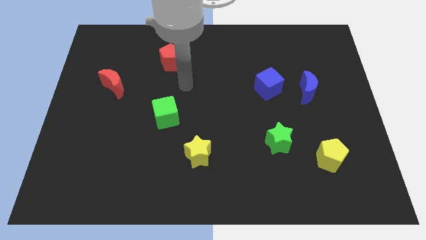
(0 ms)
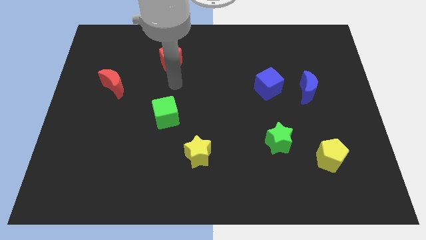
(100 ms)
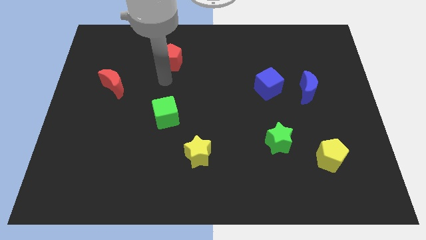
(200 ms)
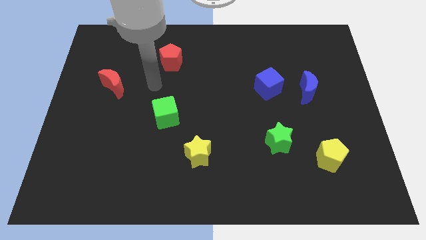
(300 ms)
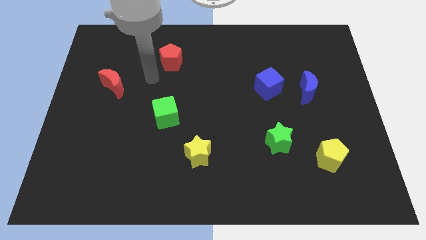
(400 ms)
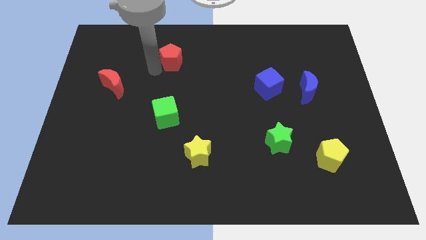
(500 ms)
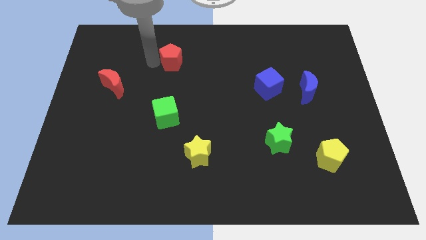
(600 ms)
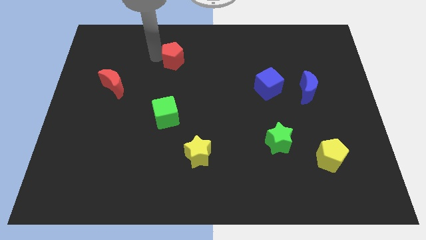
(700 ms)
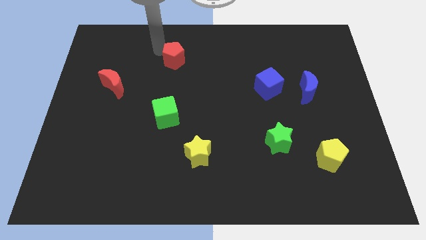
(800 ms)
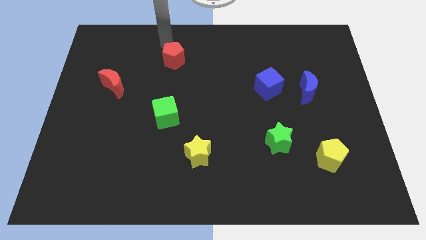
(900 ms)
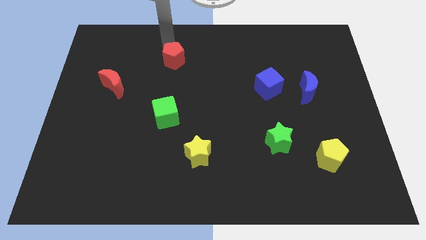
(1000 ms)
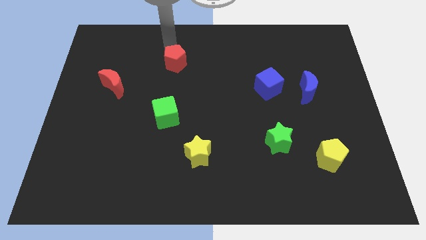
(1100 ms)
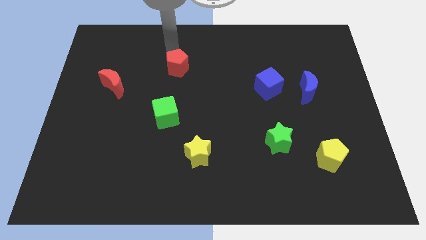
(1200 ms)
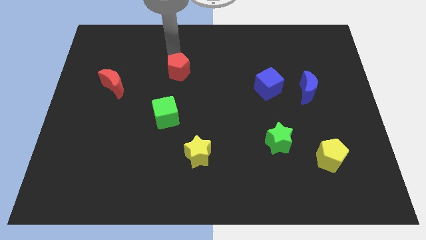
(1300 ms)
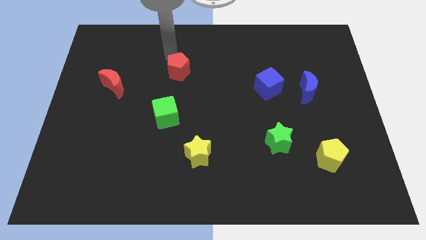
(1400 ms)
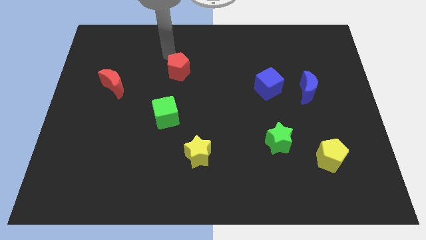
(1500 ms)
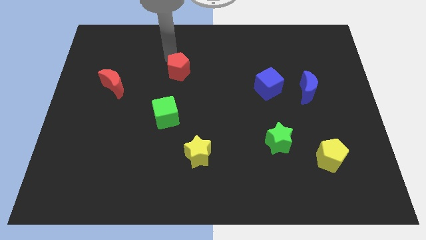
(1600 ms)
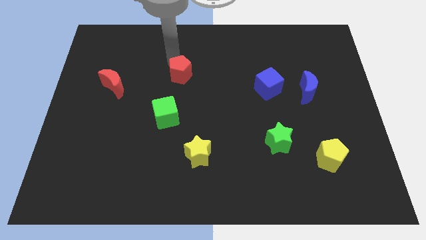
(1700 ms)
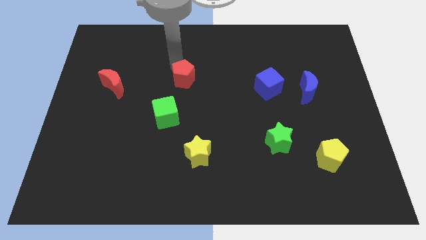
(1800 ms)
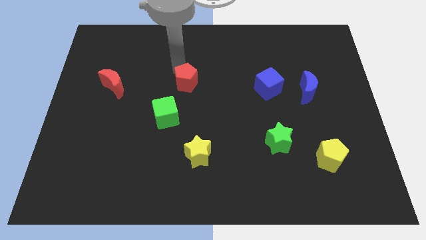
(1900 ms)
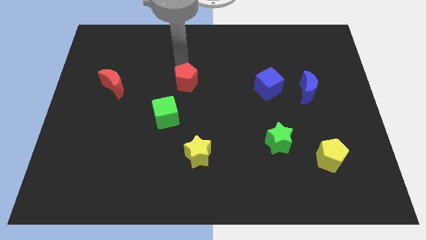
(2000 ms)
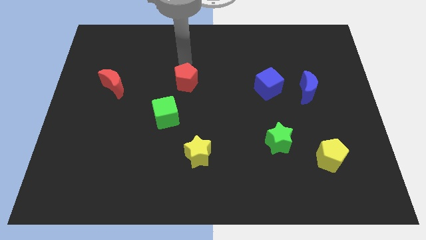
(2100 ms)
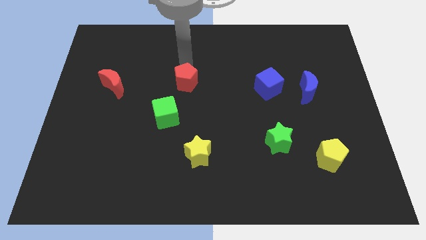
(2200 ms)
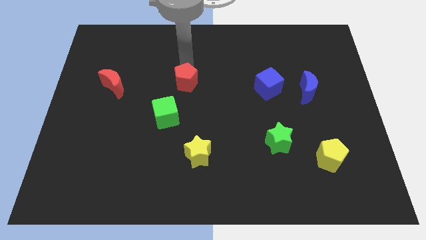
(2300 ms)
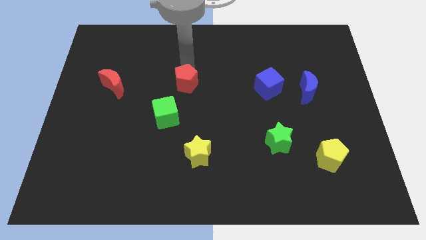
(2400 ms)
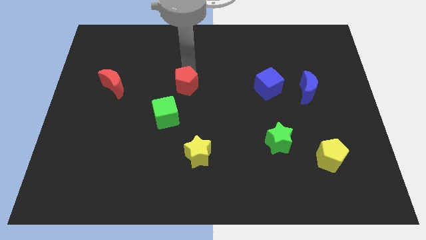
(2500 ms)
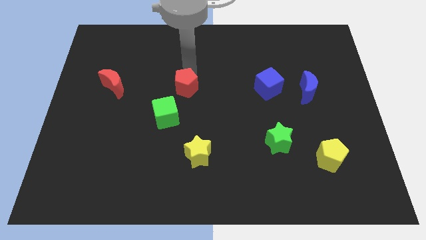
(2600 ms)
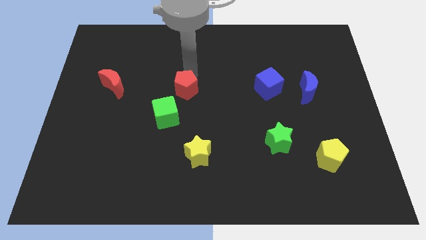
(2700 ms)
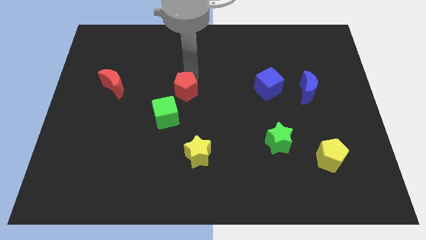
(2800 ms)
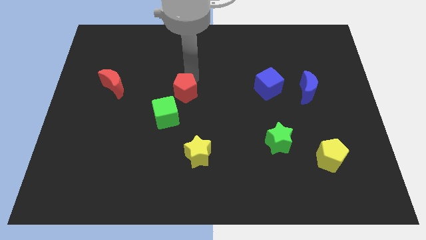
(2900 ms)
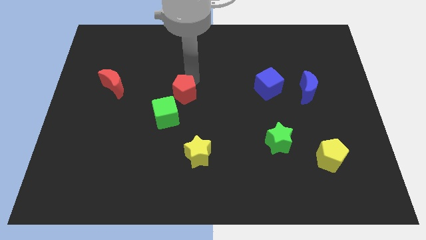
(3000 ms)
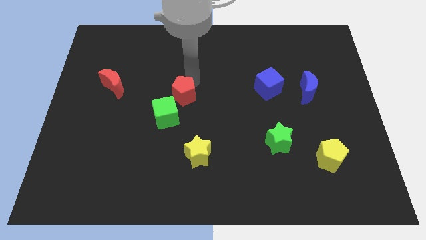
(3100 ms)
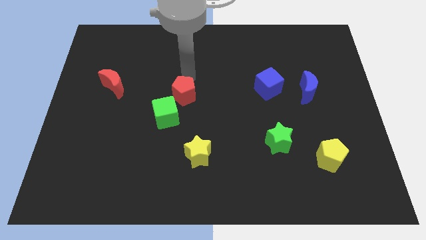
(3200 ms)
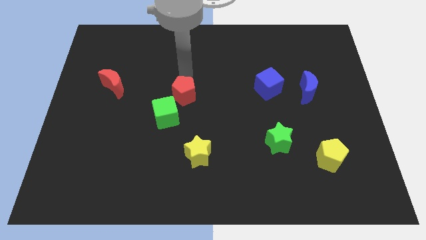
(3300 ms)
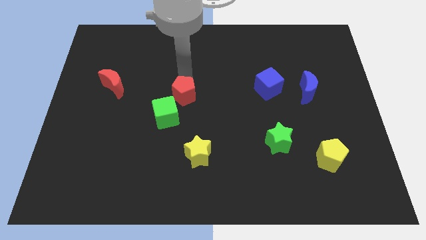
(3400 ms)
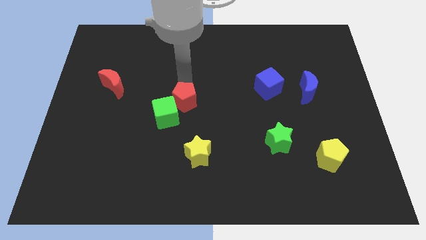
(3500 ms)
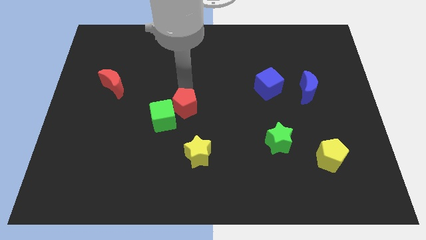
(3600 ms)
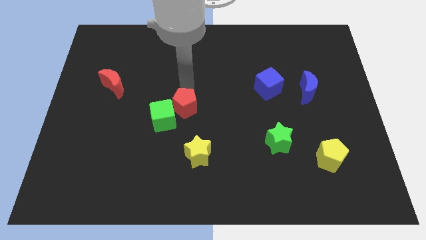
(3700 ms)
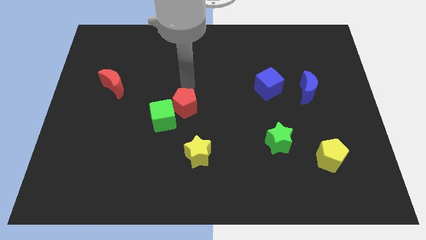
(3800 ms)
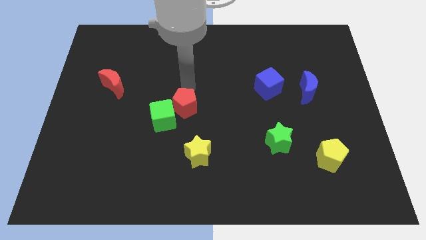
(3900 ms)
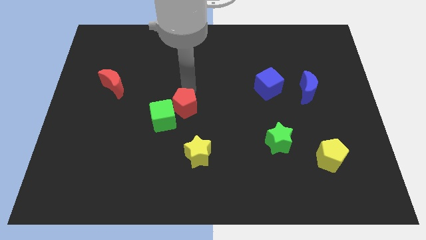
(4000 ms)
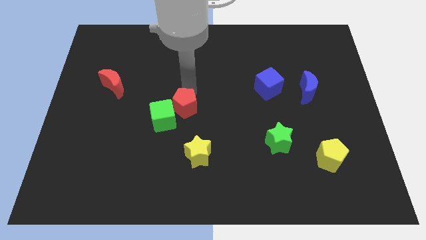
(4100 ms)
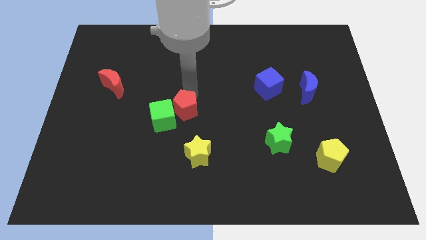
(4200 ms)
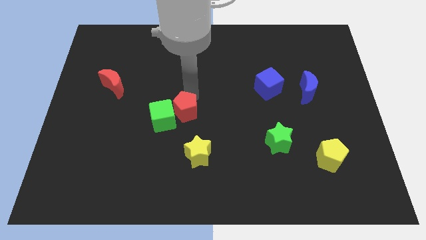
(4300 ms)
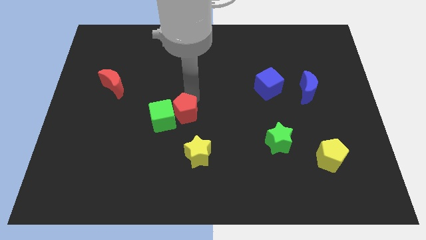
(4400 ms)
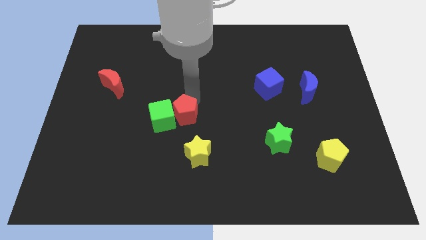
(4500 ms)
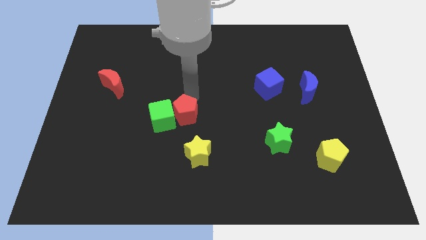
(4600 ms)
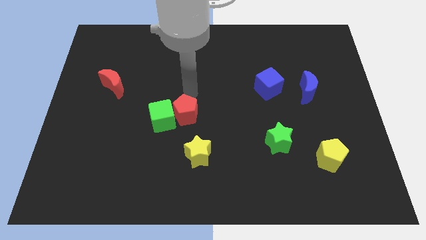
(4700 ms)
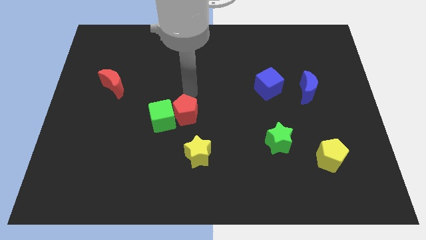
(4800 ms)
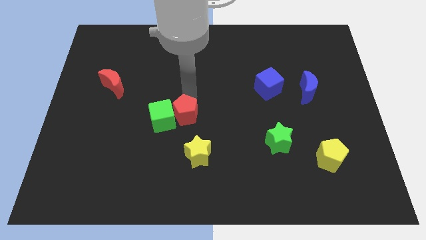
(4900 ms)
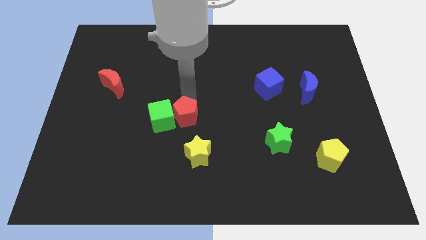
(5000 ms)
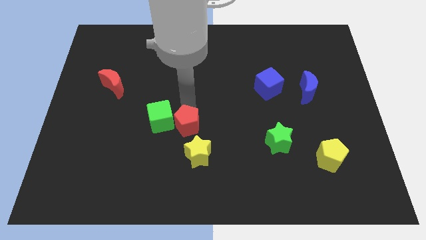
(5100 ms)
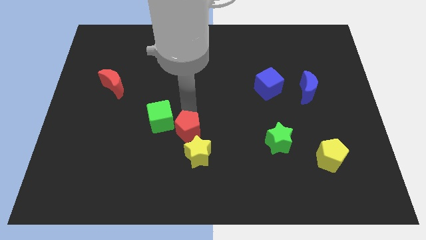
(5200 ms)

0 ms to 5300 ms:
slide the red pentagon down

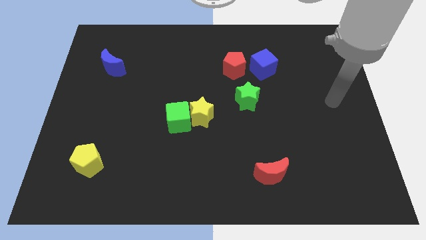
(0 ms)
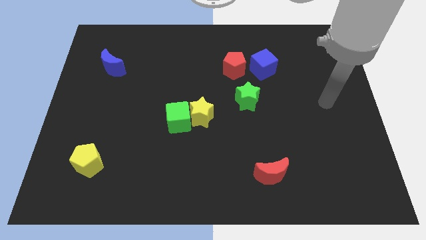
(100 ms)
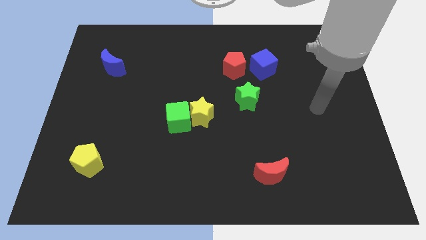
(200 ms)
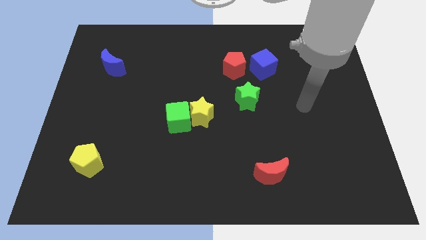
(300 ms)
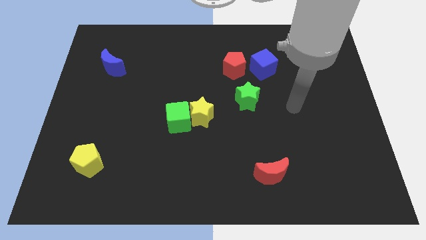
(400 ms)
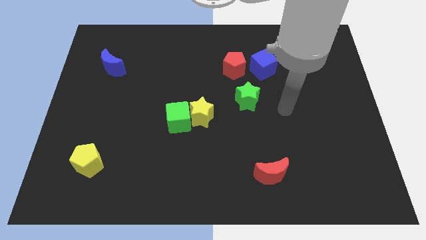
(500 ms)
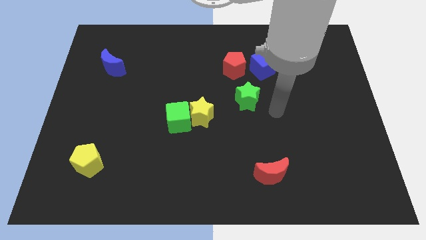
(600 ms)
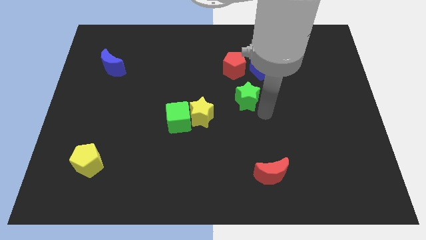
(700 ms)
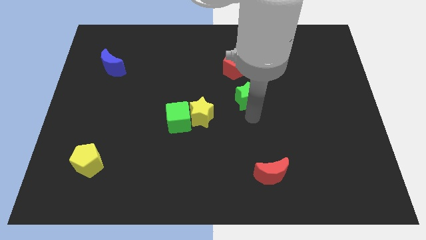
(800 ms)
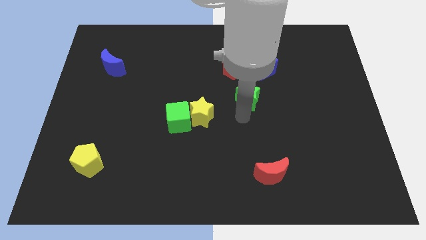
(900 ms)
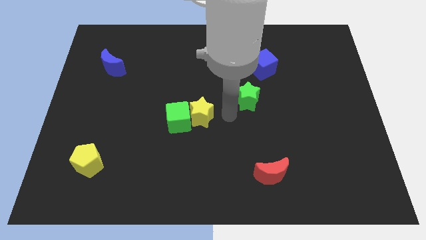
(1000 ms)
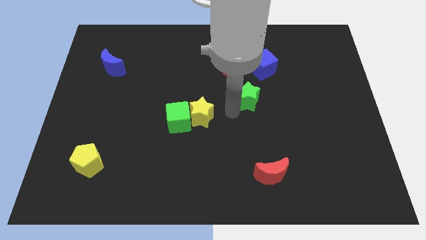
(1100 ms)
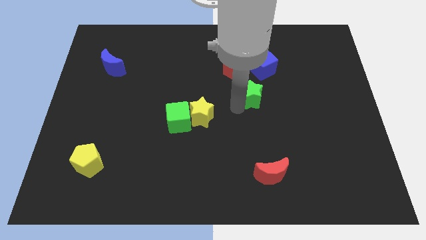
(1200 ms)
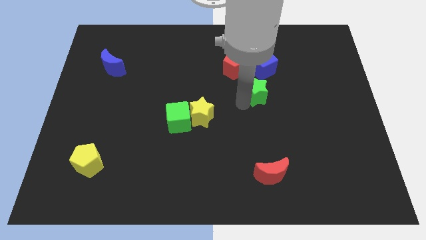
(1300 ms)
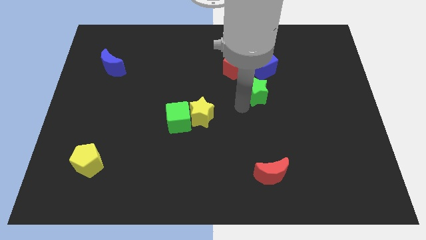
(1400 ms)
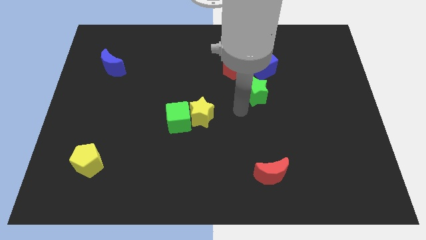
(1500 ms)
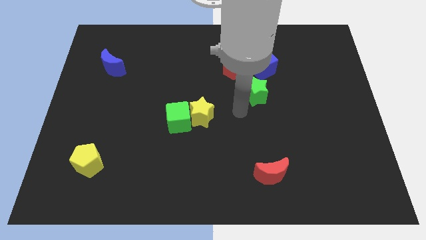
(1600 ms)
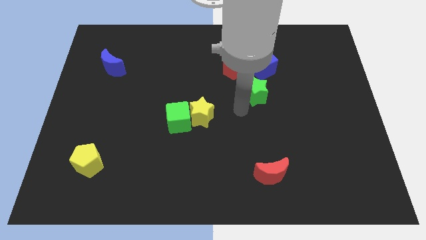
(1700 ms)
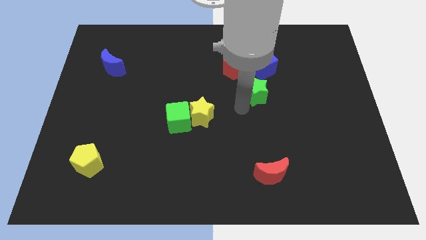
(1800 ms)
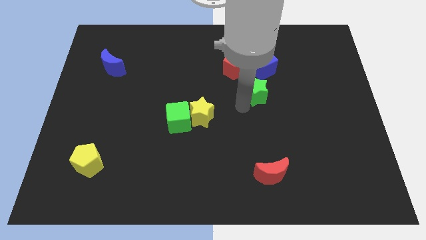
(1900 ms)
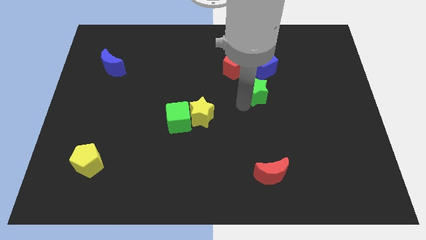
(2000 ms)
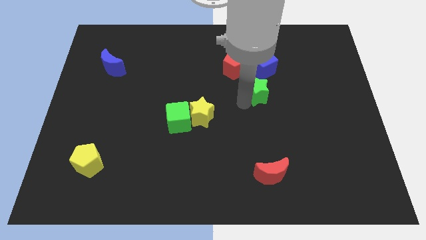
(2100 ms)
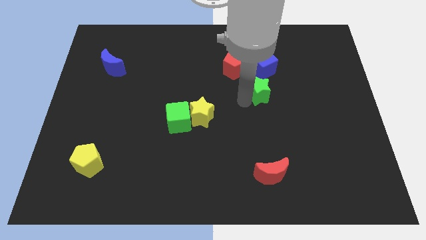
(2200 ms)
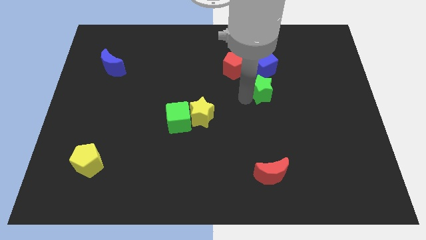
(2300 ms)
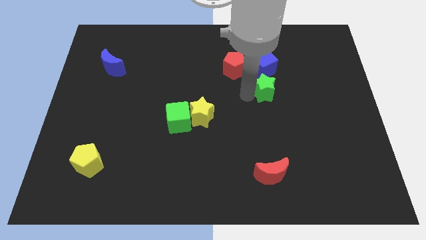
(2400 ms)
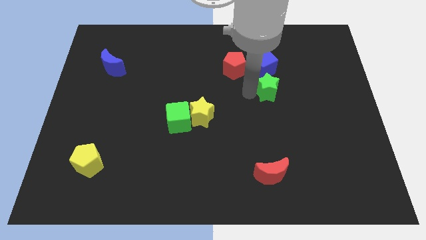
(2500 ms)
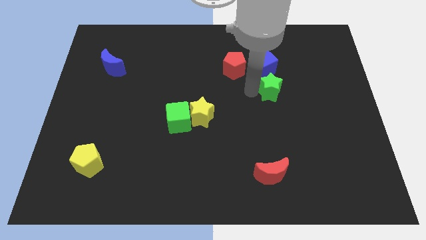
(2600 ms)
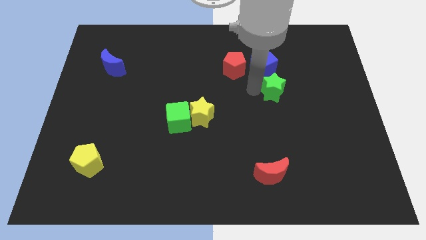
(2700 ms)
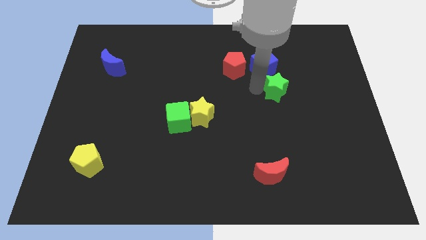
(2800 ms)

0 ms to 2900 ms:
slightly move the green star up and then right
